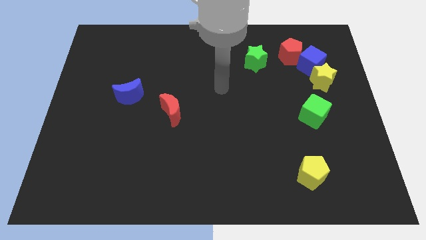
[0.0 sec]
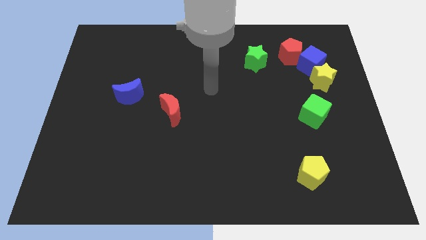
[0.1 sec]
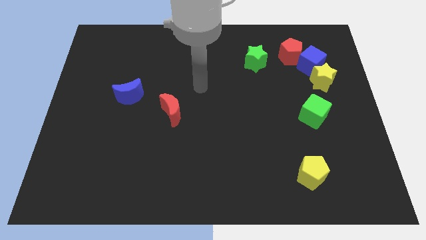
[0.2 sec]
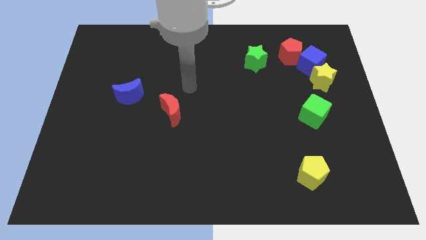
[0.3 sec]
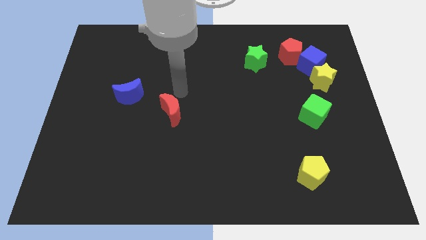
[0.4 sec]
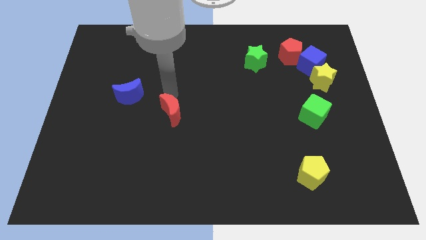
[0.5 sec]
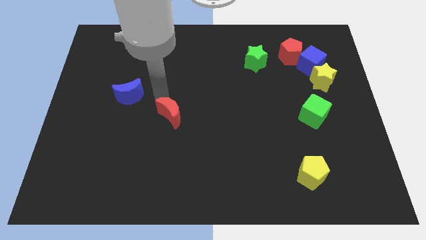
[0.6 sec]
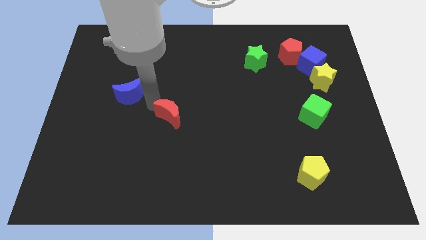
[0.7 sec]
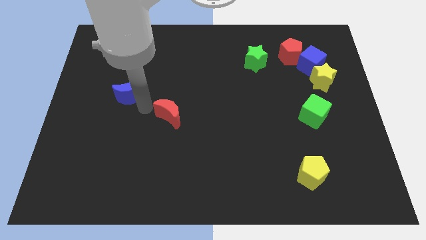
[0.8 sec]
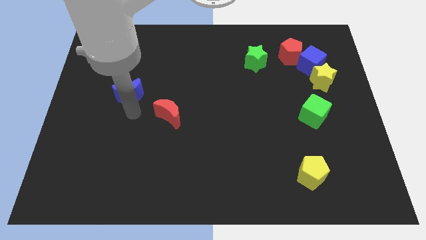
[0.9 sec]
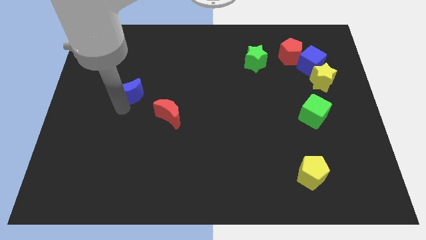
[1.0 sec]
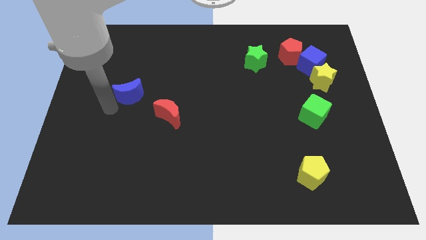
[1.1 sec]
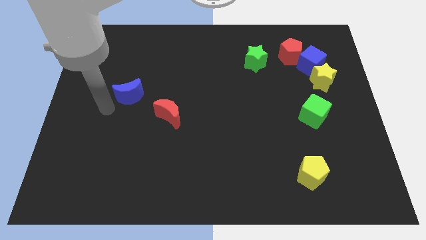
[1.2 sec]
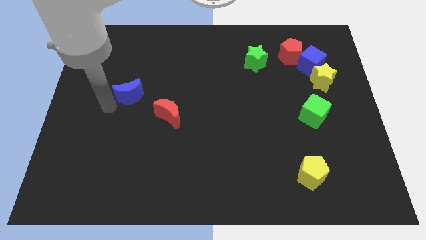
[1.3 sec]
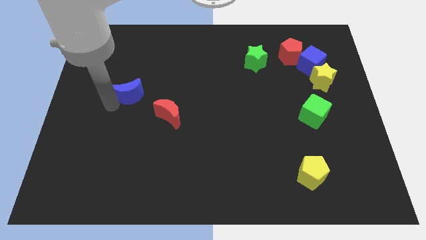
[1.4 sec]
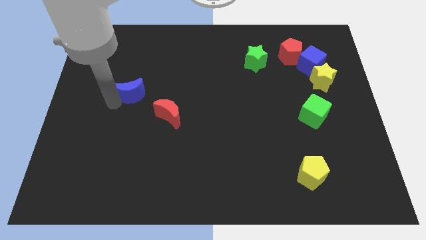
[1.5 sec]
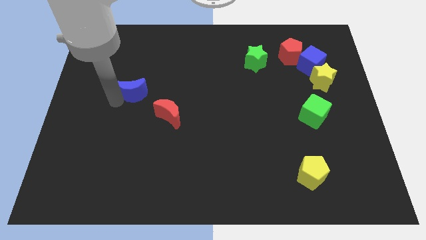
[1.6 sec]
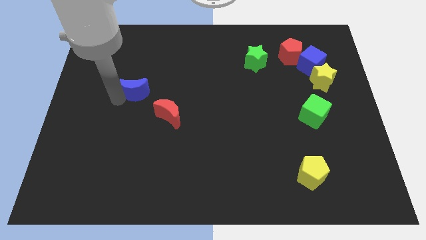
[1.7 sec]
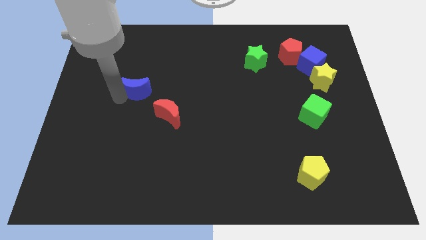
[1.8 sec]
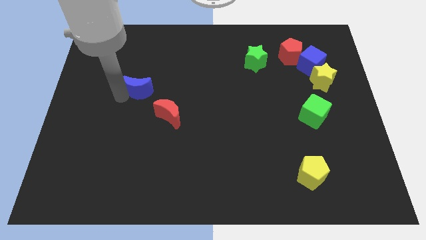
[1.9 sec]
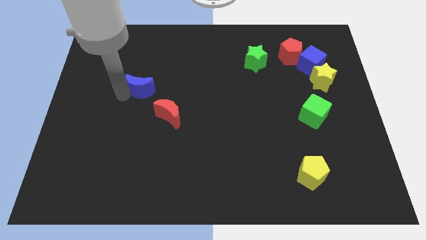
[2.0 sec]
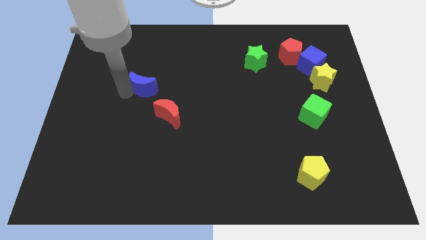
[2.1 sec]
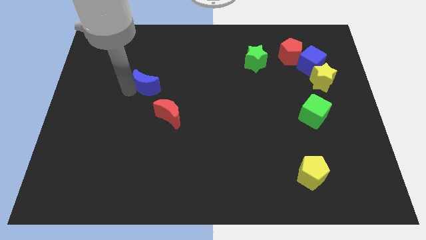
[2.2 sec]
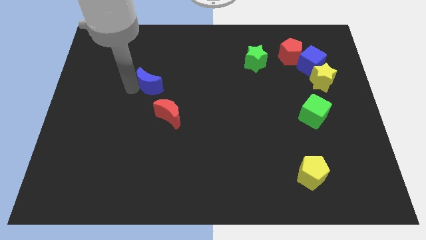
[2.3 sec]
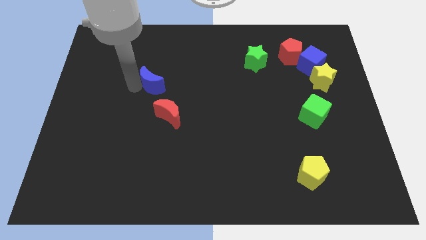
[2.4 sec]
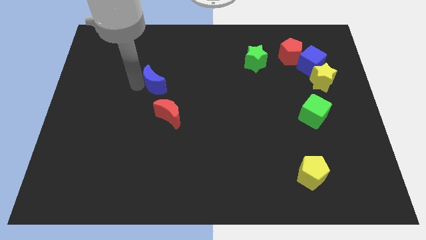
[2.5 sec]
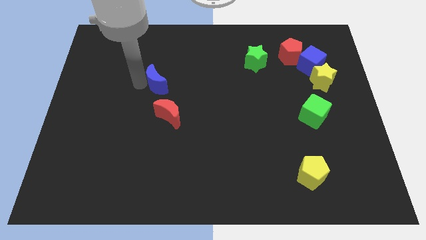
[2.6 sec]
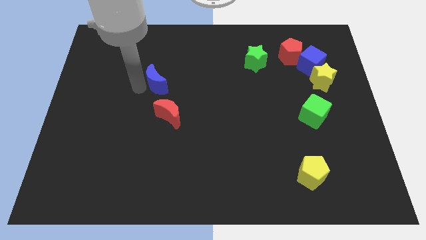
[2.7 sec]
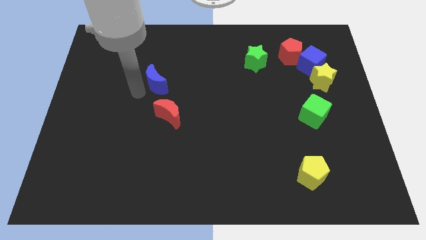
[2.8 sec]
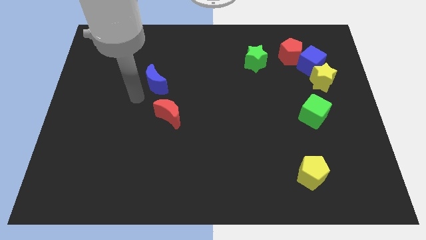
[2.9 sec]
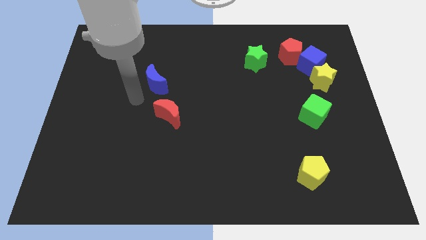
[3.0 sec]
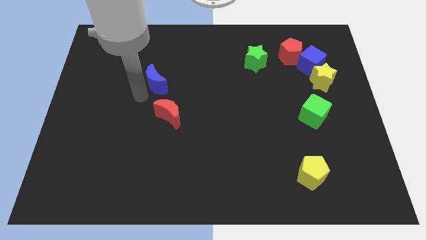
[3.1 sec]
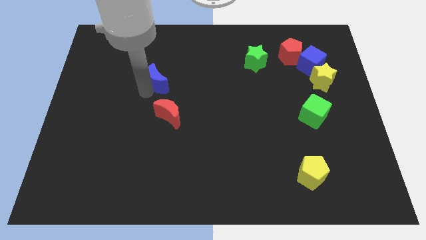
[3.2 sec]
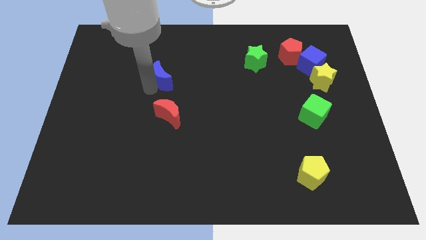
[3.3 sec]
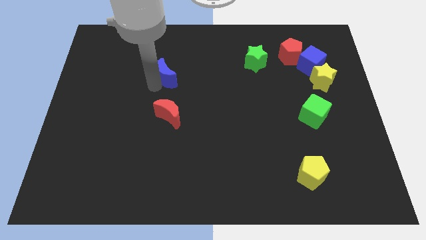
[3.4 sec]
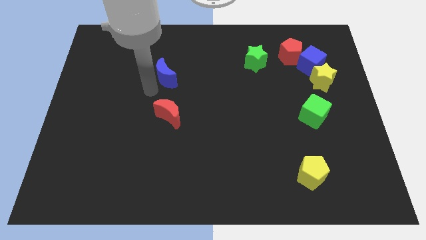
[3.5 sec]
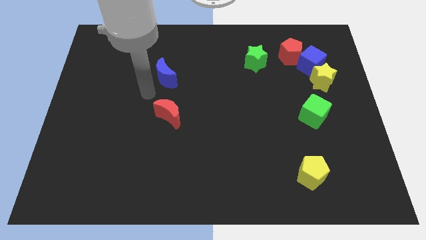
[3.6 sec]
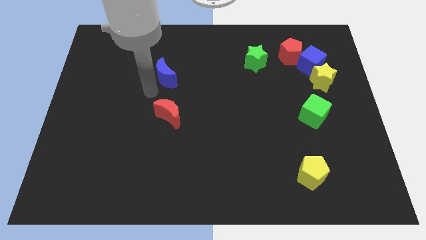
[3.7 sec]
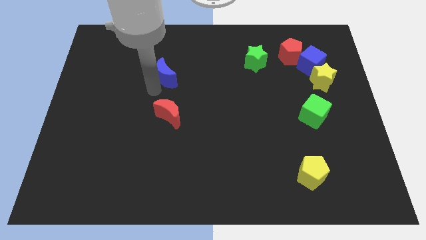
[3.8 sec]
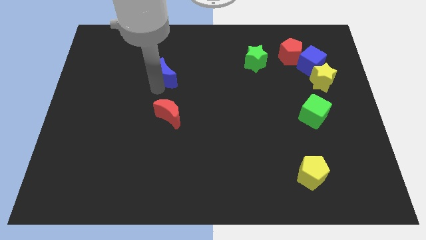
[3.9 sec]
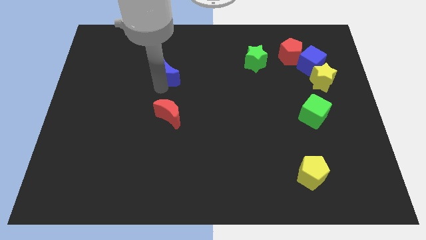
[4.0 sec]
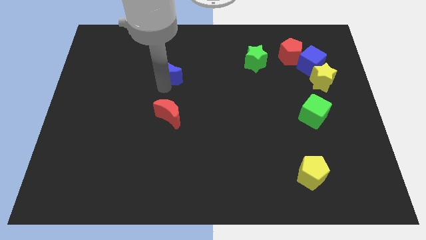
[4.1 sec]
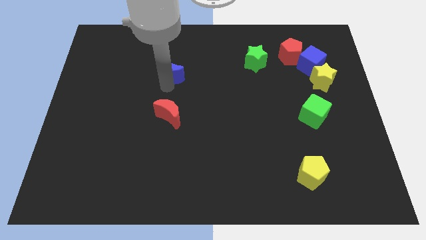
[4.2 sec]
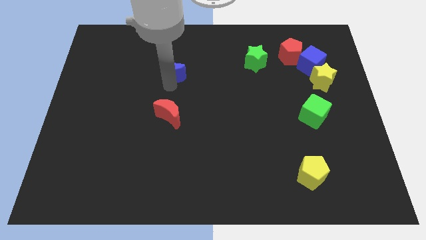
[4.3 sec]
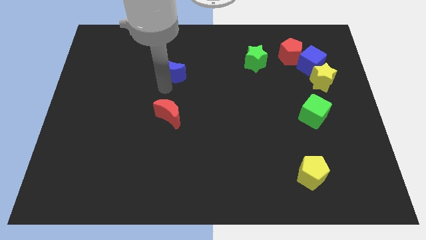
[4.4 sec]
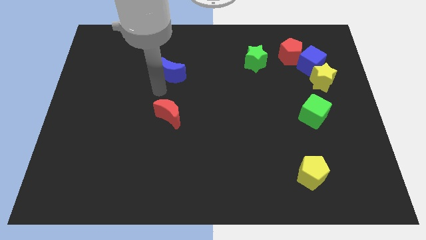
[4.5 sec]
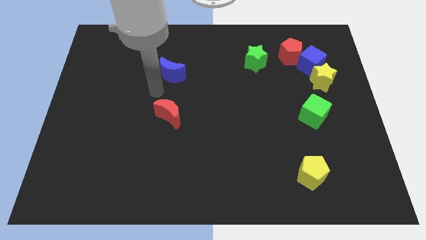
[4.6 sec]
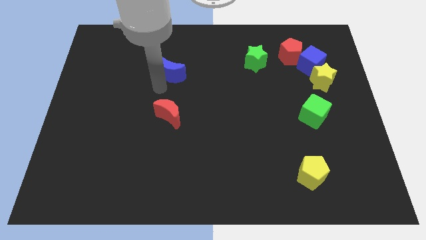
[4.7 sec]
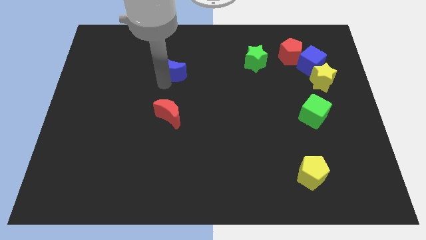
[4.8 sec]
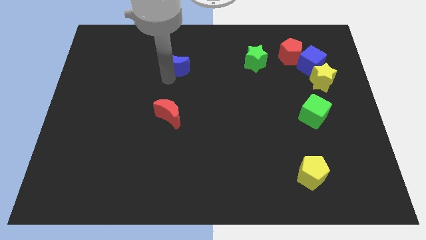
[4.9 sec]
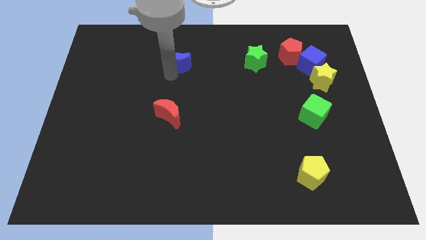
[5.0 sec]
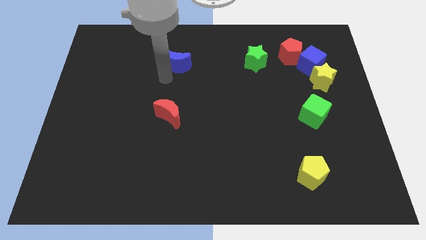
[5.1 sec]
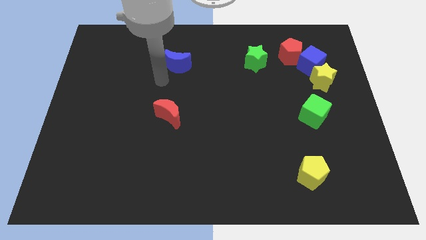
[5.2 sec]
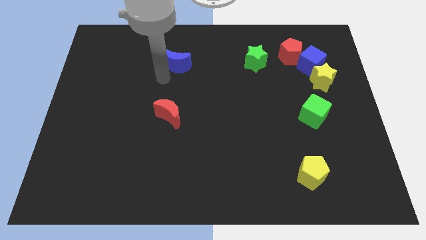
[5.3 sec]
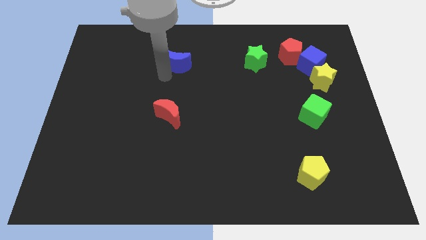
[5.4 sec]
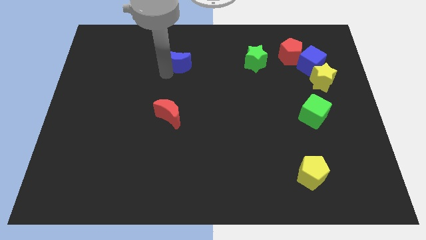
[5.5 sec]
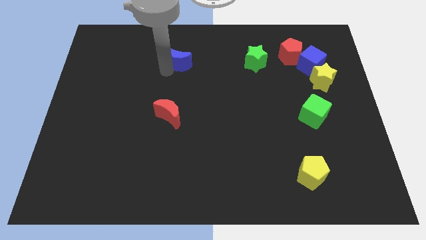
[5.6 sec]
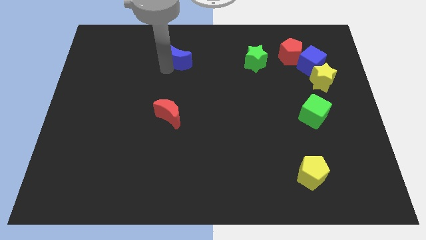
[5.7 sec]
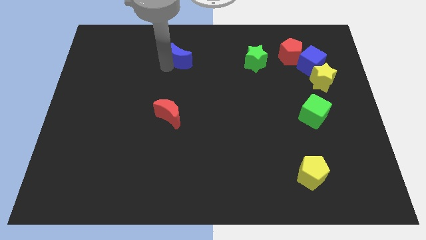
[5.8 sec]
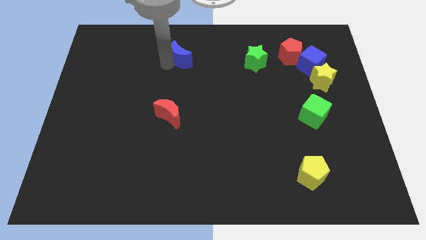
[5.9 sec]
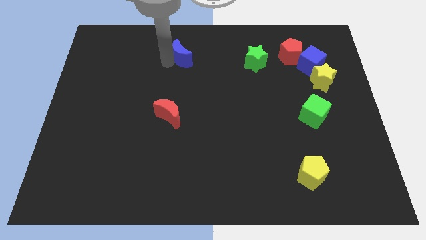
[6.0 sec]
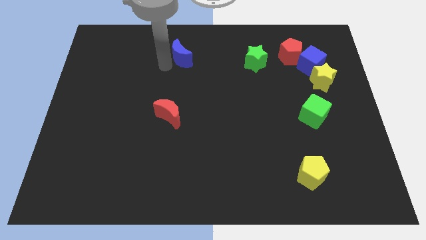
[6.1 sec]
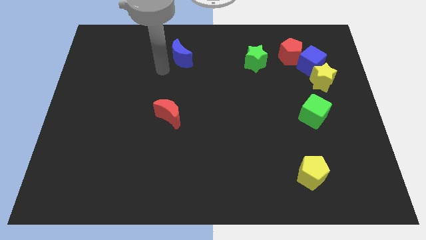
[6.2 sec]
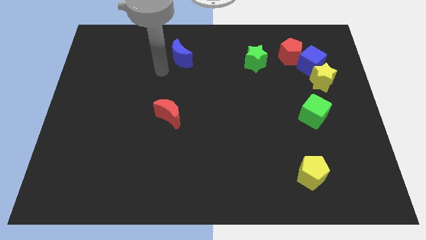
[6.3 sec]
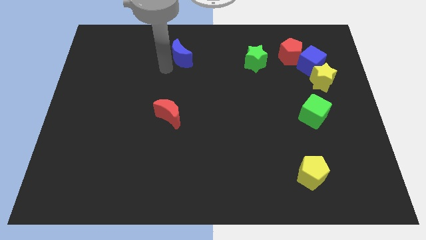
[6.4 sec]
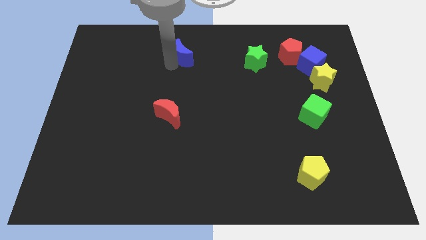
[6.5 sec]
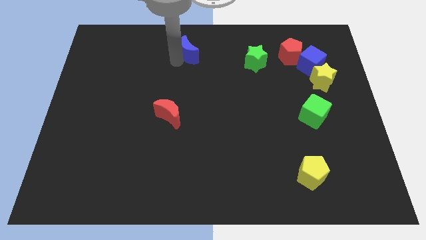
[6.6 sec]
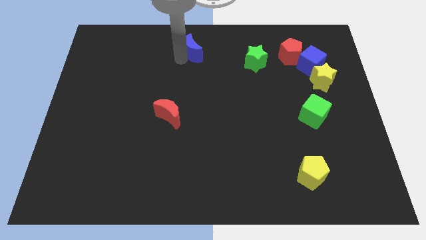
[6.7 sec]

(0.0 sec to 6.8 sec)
slide the blue moon to the top side
